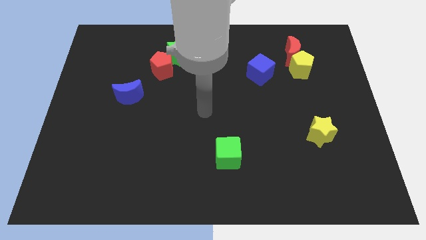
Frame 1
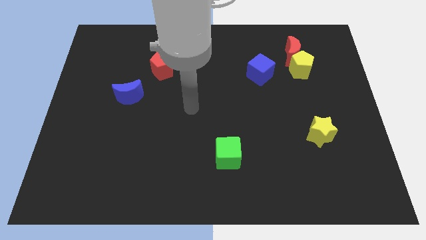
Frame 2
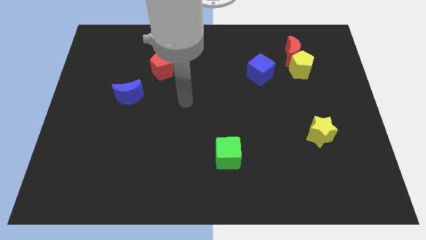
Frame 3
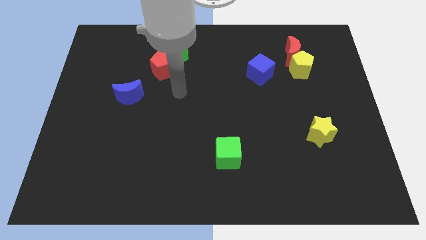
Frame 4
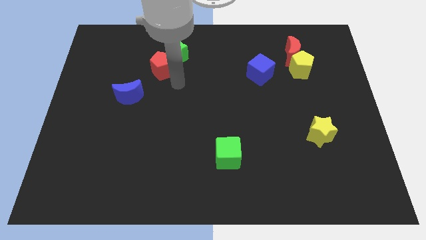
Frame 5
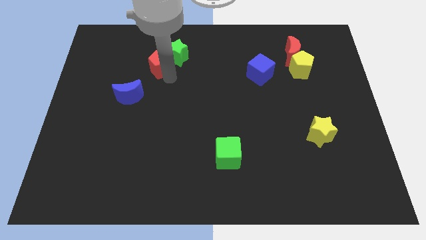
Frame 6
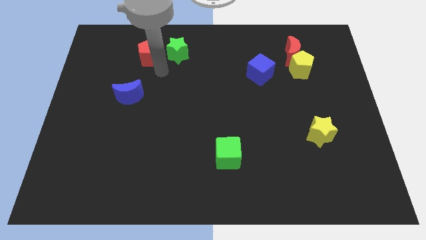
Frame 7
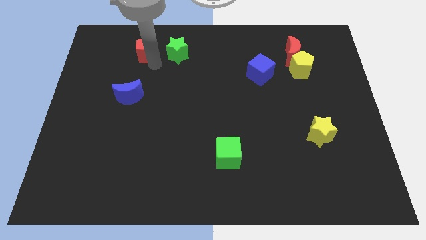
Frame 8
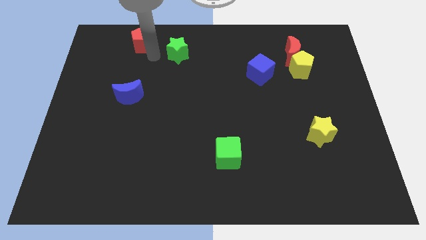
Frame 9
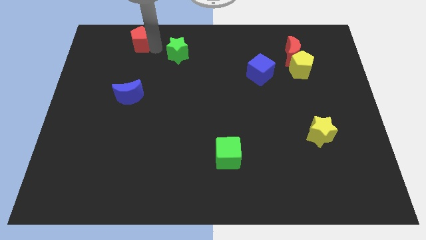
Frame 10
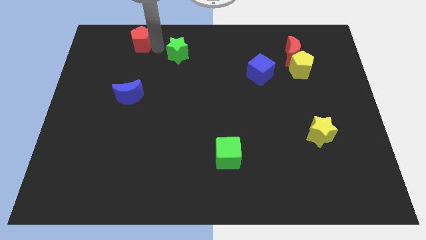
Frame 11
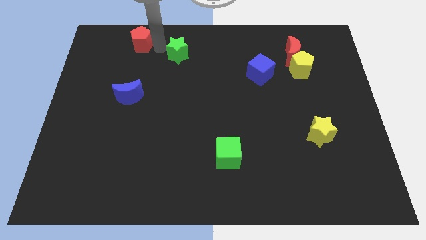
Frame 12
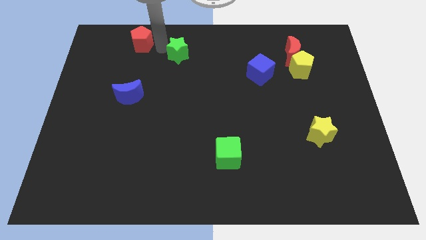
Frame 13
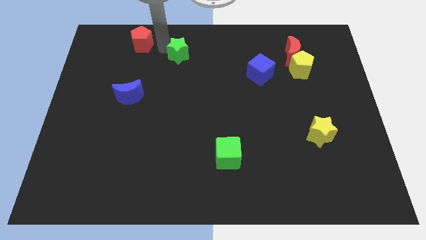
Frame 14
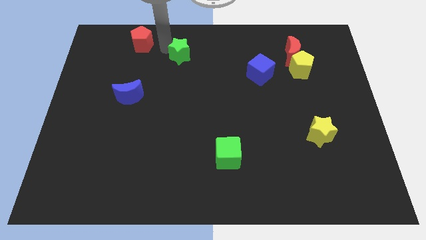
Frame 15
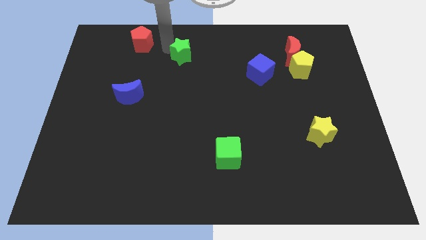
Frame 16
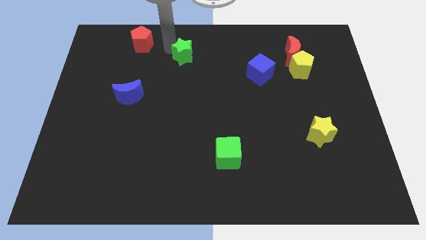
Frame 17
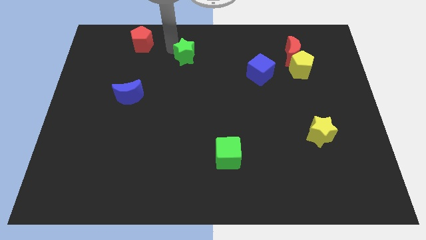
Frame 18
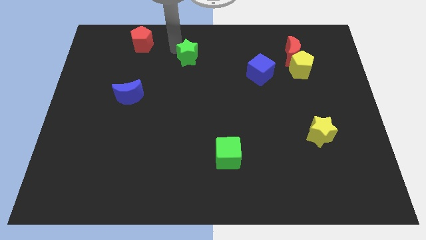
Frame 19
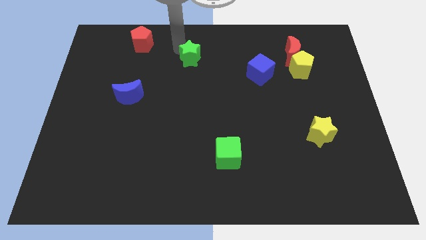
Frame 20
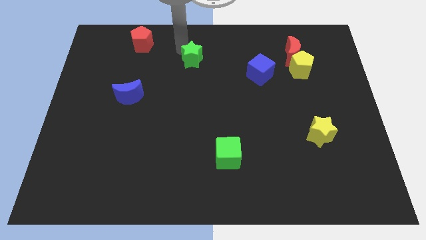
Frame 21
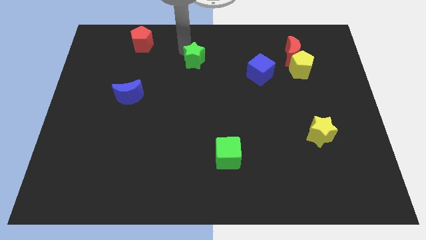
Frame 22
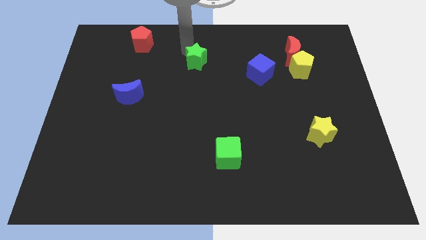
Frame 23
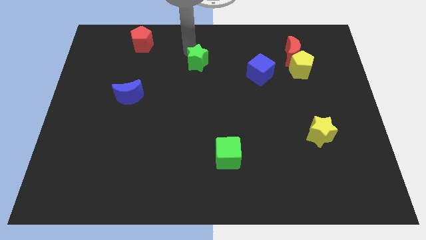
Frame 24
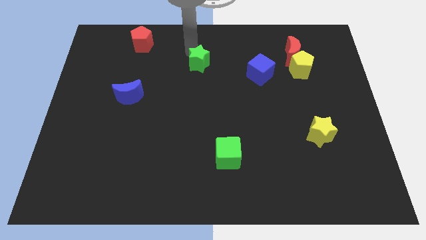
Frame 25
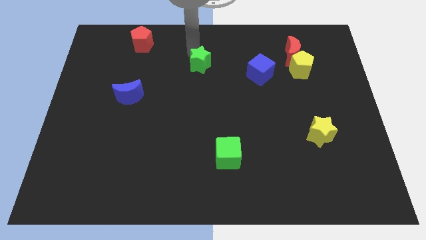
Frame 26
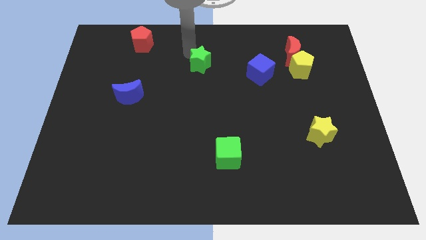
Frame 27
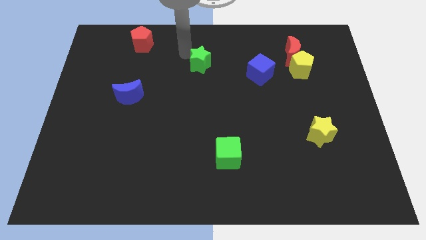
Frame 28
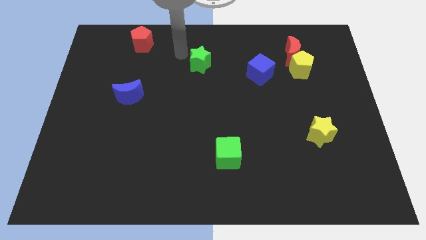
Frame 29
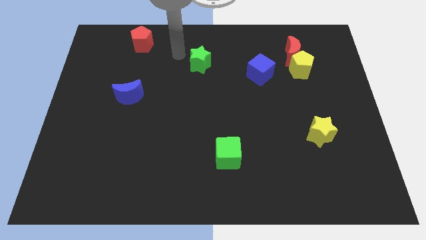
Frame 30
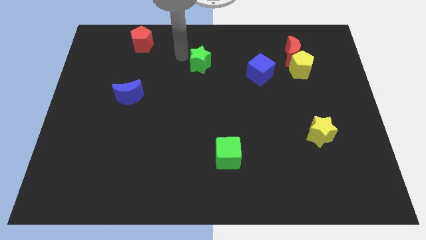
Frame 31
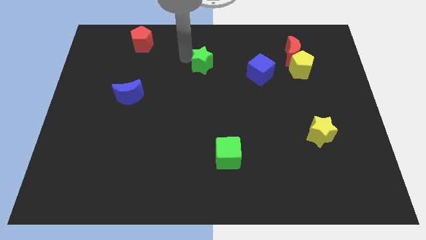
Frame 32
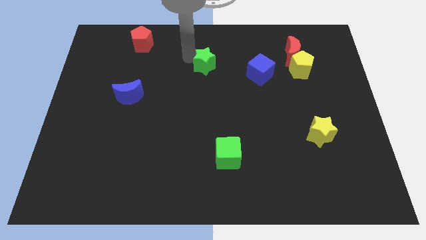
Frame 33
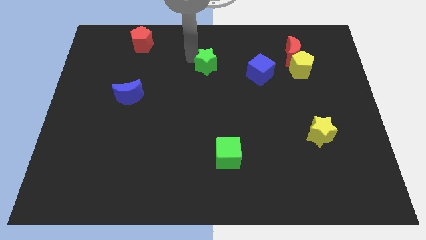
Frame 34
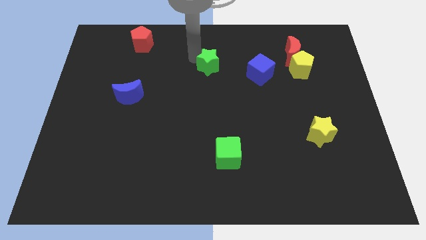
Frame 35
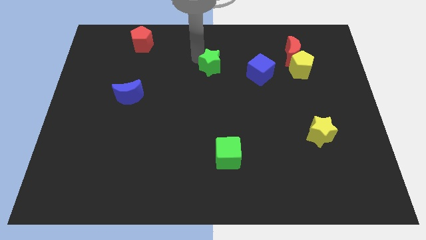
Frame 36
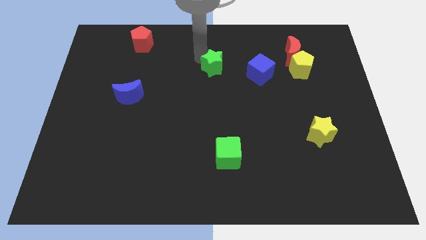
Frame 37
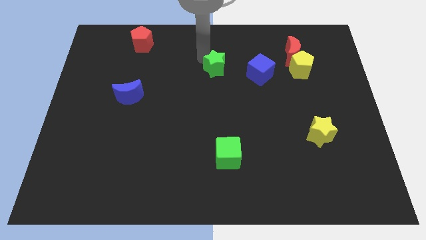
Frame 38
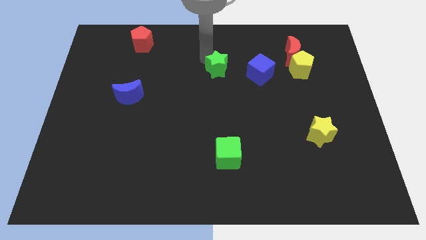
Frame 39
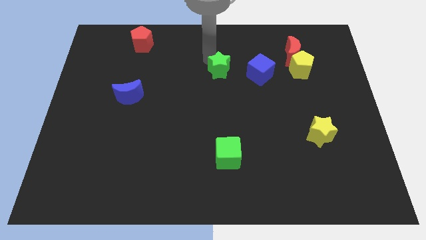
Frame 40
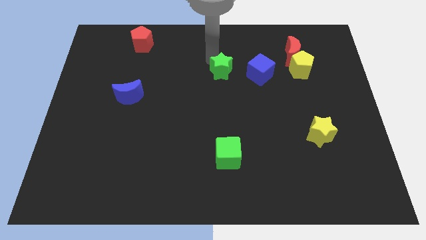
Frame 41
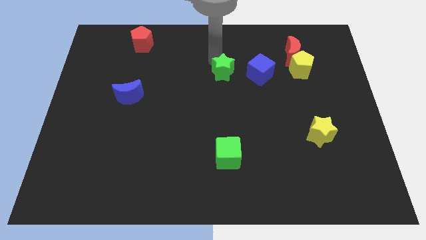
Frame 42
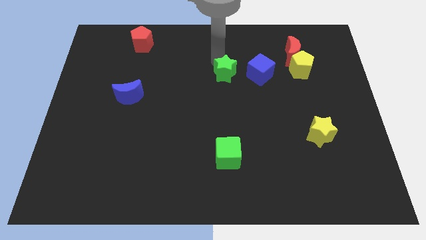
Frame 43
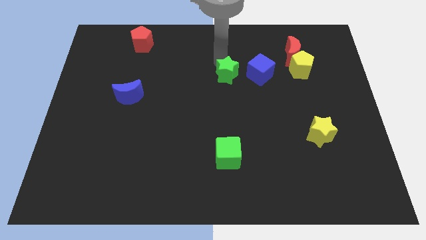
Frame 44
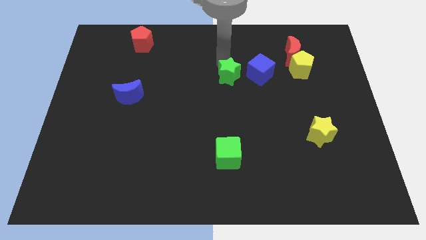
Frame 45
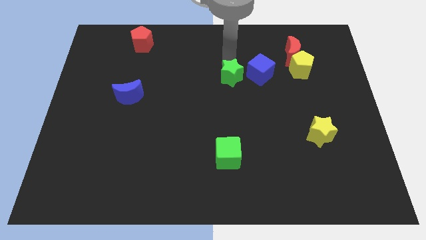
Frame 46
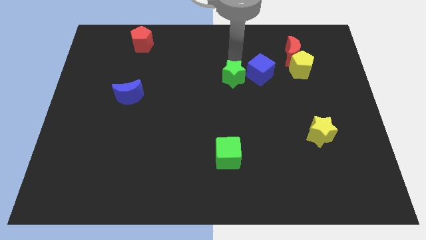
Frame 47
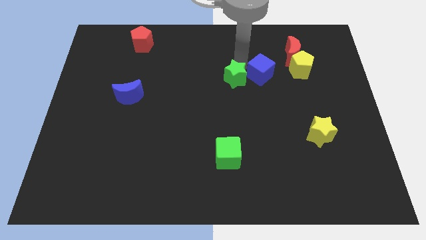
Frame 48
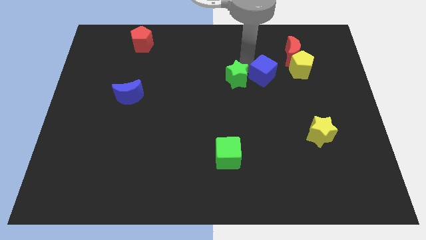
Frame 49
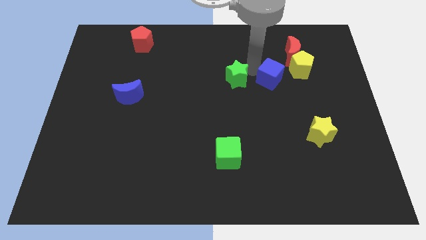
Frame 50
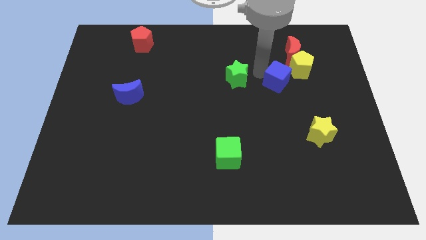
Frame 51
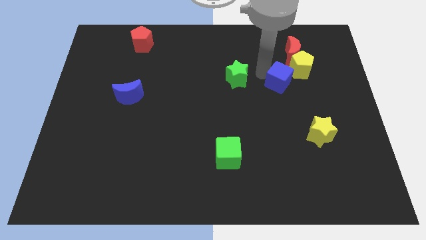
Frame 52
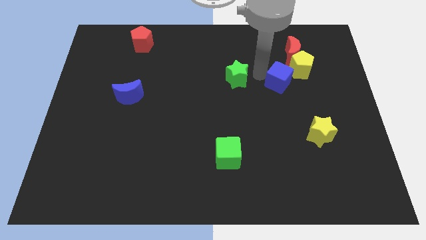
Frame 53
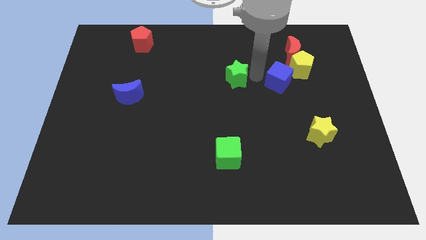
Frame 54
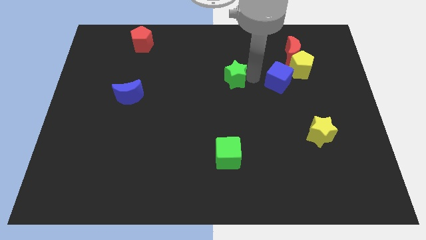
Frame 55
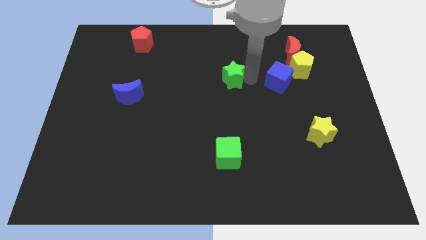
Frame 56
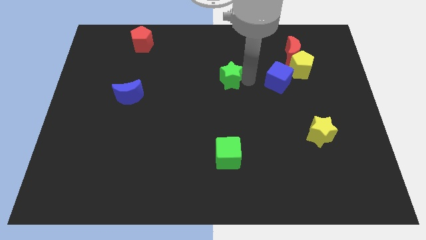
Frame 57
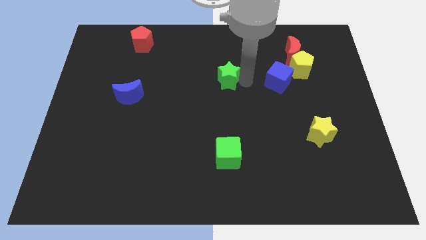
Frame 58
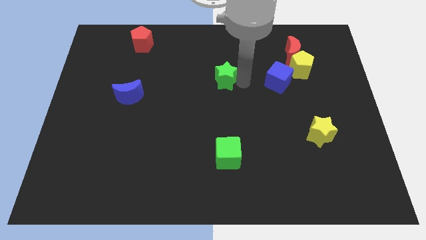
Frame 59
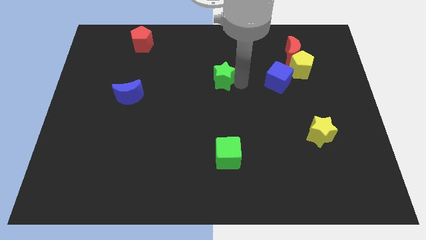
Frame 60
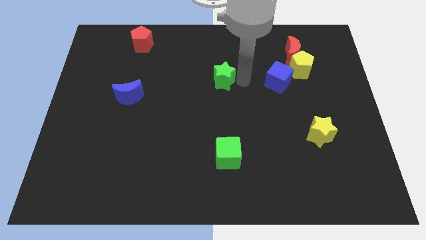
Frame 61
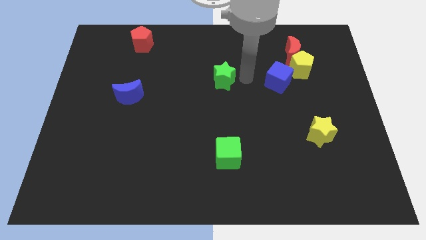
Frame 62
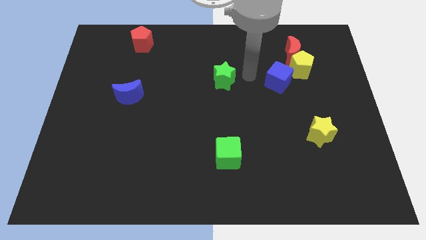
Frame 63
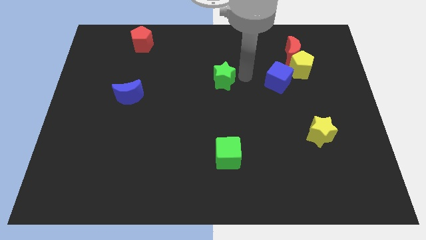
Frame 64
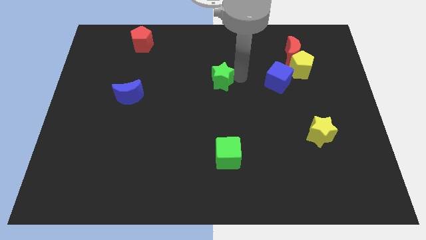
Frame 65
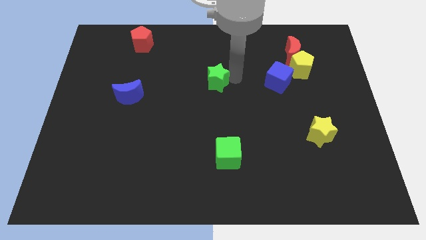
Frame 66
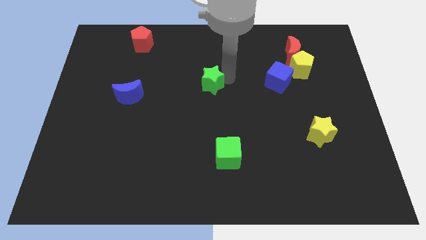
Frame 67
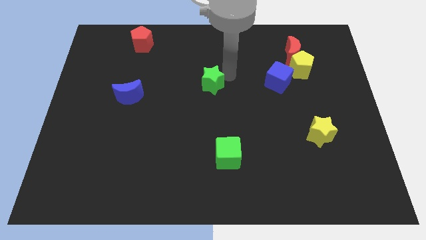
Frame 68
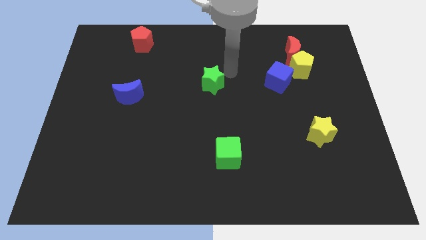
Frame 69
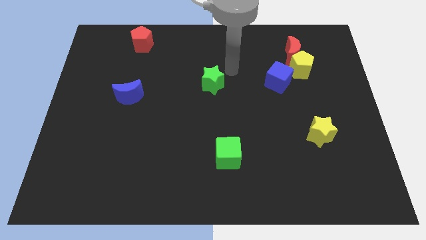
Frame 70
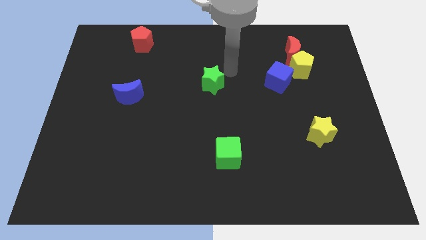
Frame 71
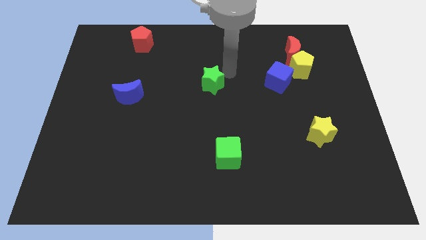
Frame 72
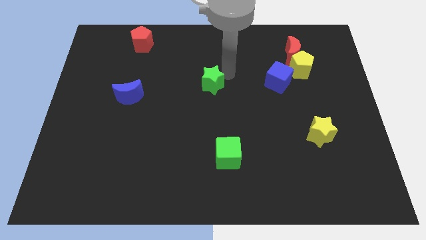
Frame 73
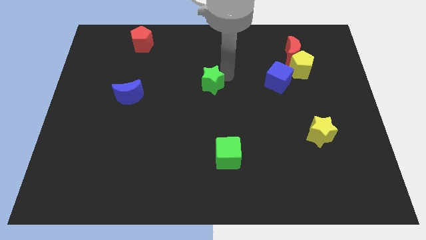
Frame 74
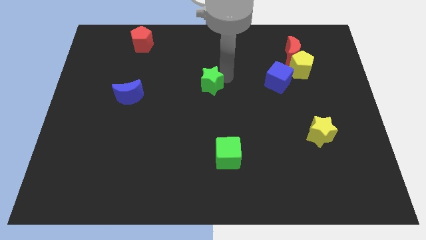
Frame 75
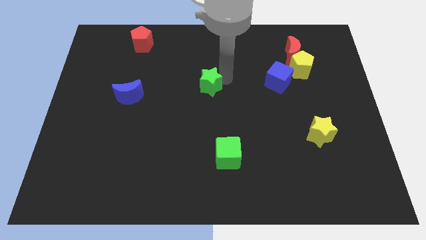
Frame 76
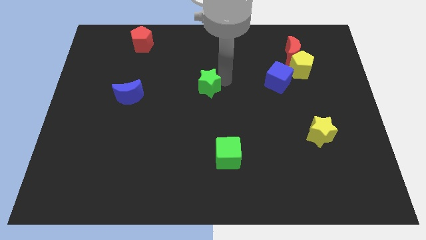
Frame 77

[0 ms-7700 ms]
move the green star a little down

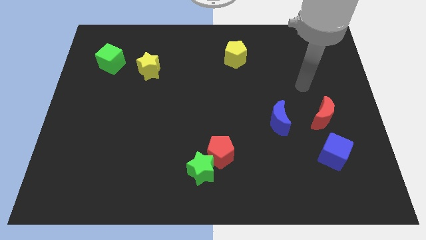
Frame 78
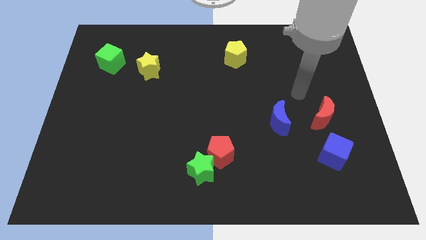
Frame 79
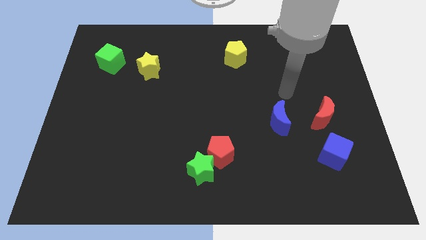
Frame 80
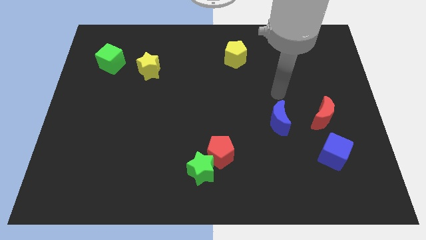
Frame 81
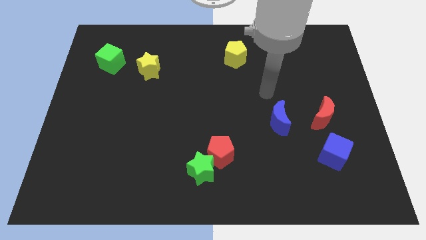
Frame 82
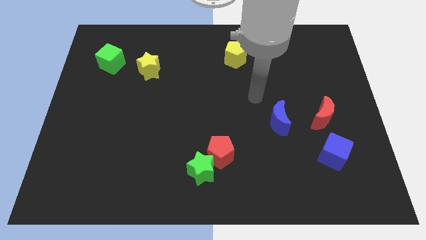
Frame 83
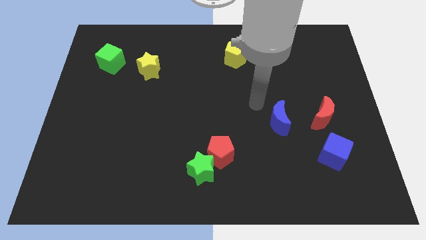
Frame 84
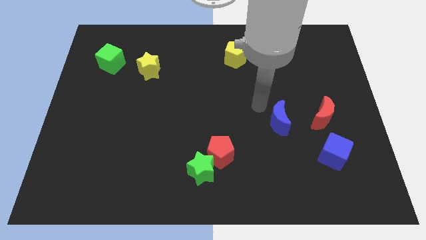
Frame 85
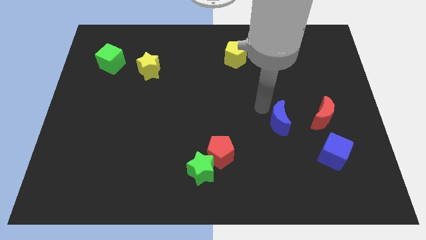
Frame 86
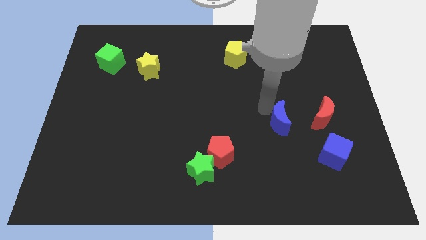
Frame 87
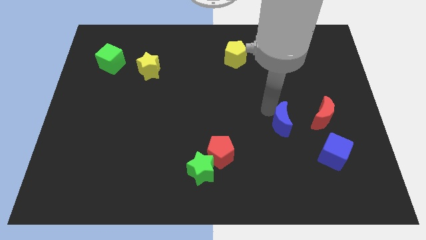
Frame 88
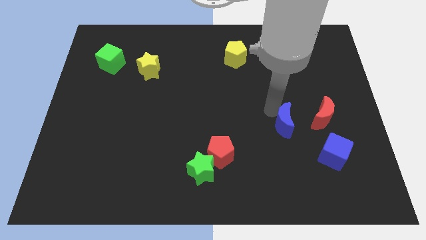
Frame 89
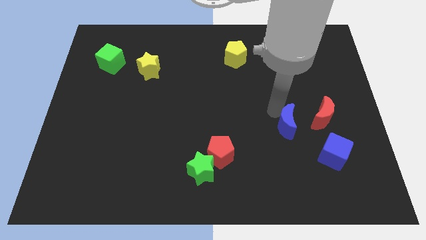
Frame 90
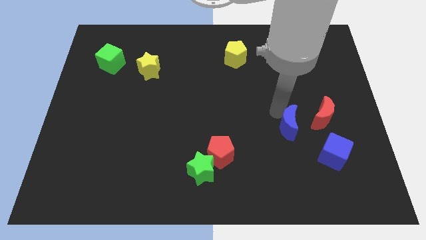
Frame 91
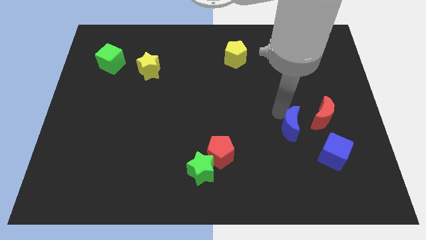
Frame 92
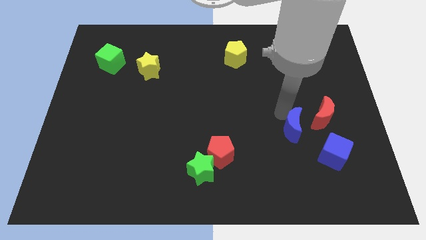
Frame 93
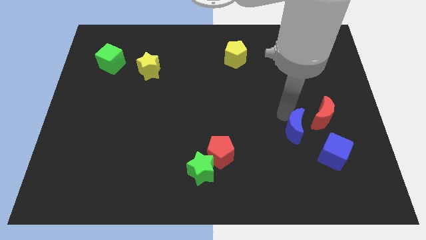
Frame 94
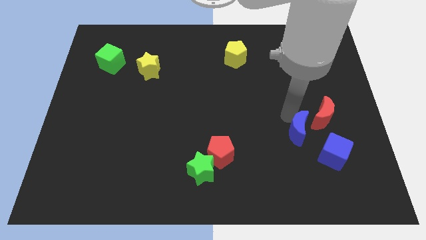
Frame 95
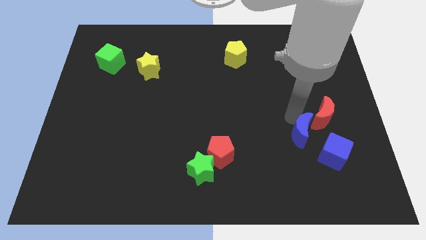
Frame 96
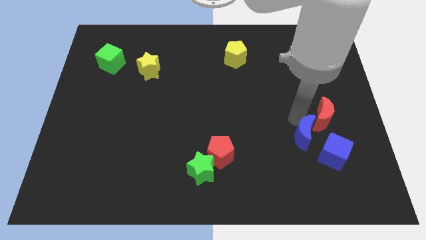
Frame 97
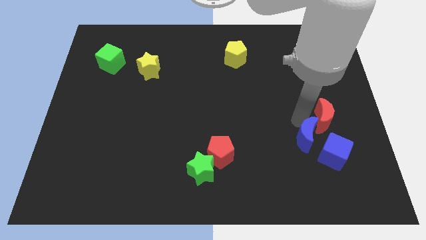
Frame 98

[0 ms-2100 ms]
move the blue moon down and to the right somewhat
